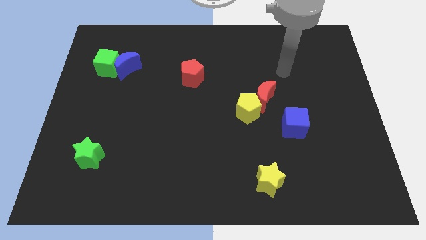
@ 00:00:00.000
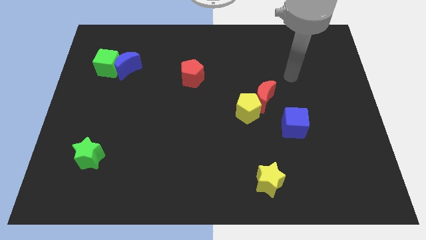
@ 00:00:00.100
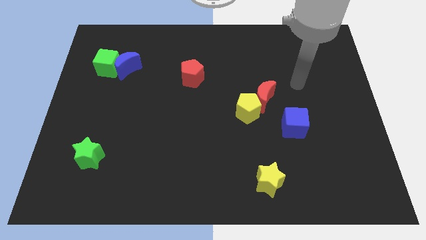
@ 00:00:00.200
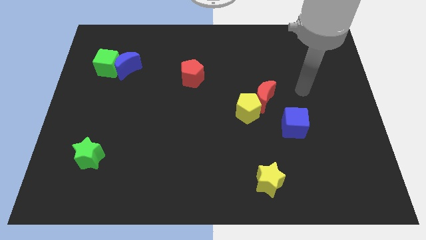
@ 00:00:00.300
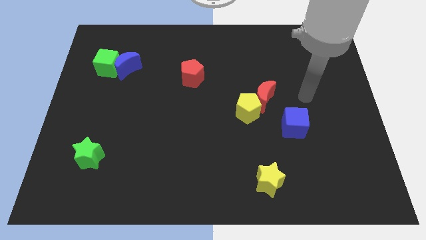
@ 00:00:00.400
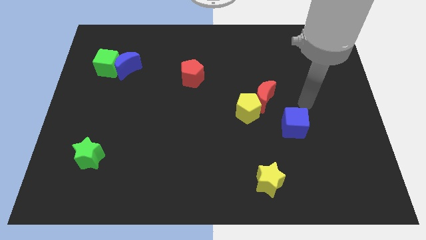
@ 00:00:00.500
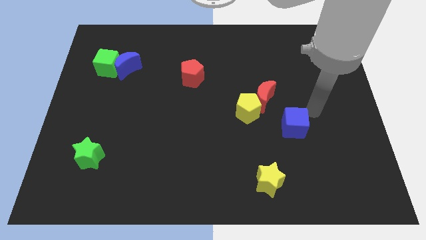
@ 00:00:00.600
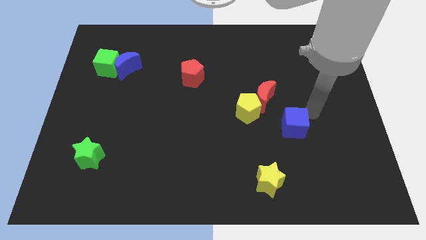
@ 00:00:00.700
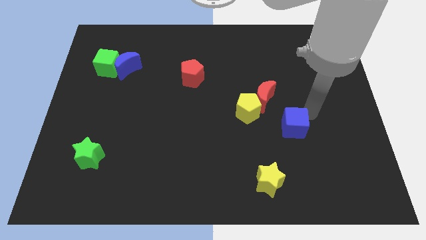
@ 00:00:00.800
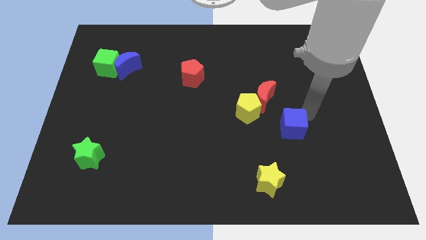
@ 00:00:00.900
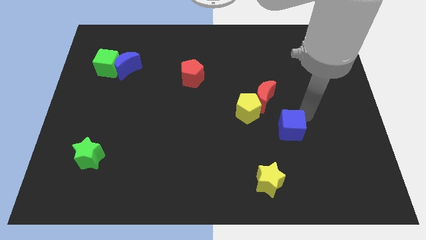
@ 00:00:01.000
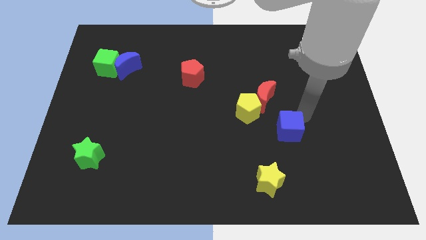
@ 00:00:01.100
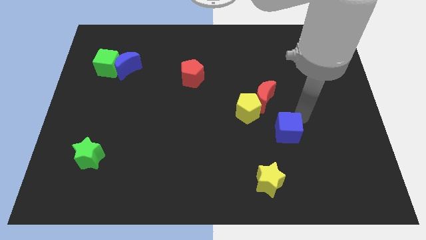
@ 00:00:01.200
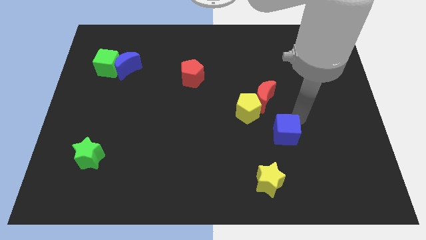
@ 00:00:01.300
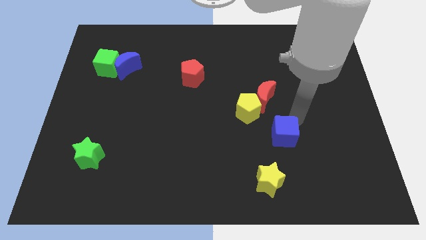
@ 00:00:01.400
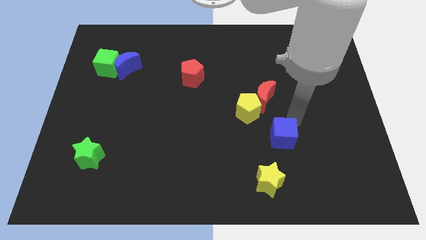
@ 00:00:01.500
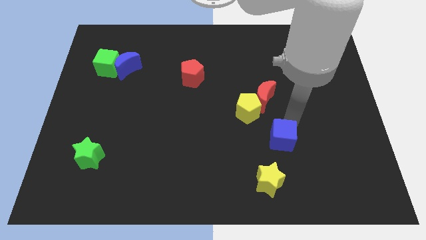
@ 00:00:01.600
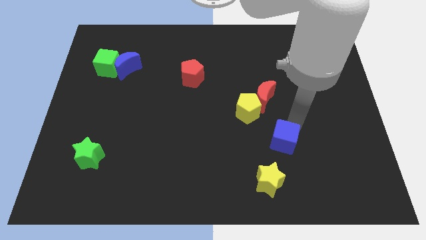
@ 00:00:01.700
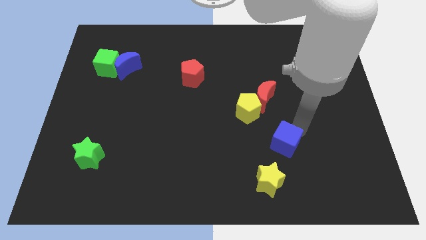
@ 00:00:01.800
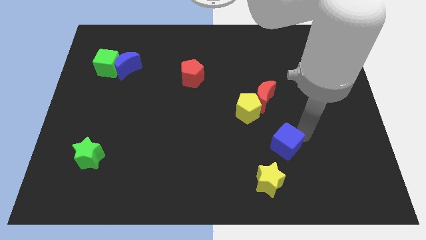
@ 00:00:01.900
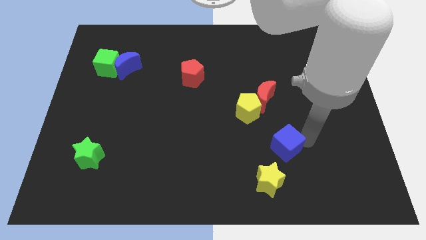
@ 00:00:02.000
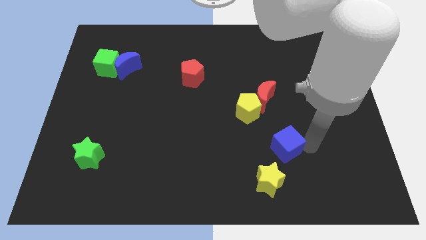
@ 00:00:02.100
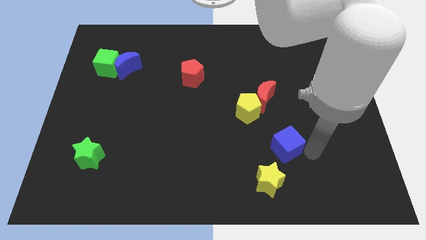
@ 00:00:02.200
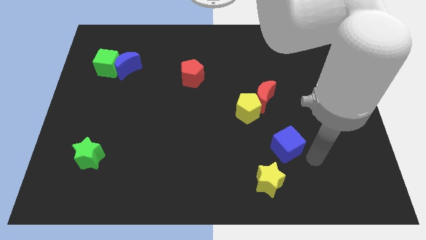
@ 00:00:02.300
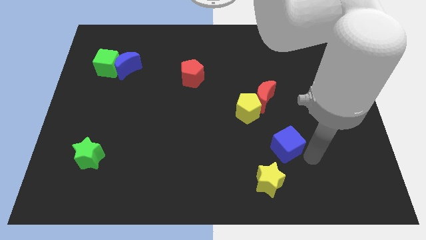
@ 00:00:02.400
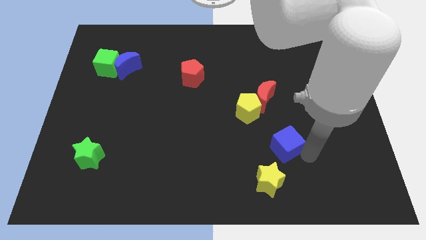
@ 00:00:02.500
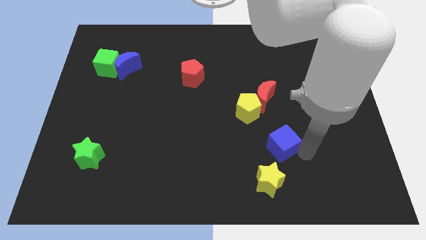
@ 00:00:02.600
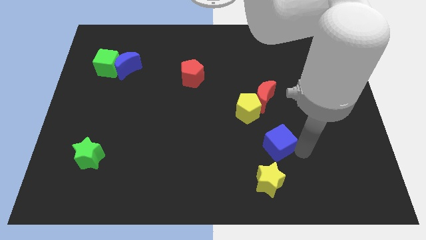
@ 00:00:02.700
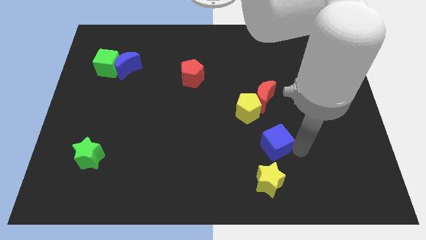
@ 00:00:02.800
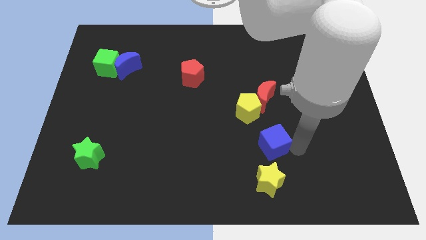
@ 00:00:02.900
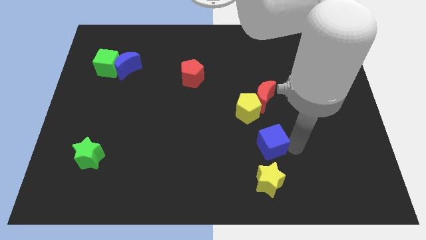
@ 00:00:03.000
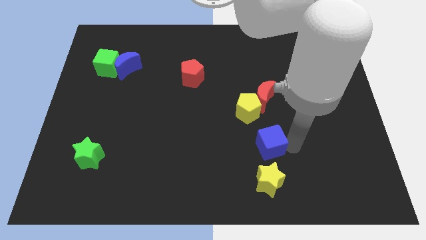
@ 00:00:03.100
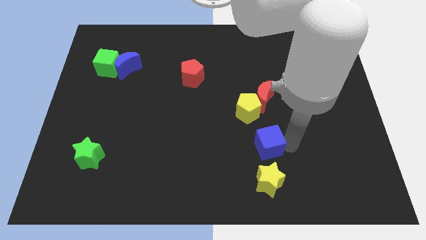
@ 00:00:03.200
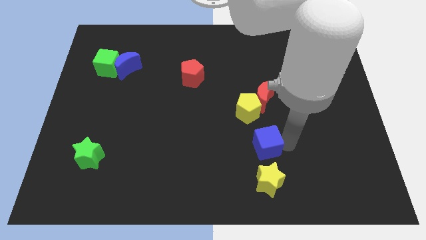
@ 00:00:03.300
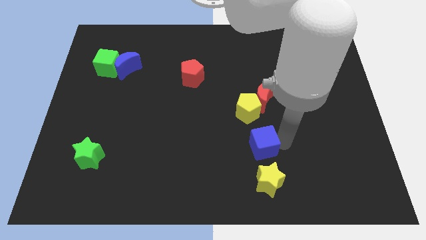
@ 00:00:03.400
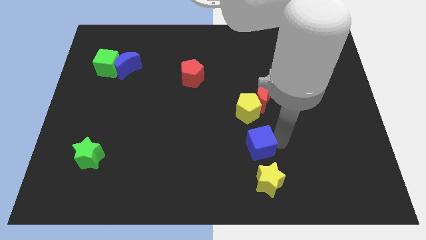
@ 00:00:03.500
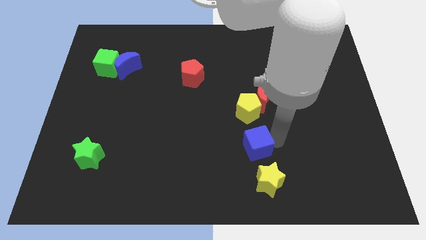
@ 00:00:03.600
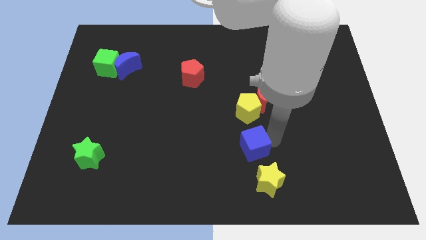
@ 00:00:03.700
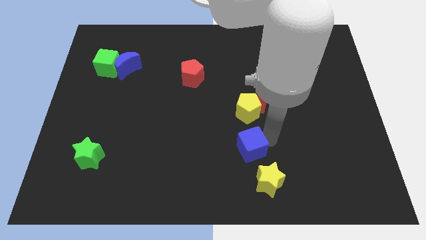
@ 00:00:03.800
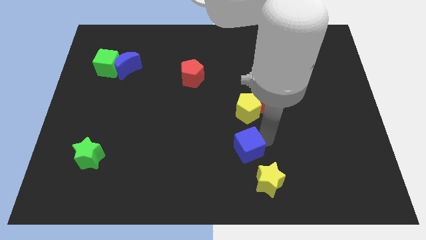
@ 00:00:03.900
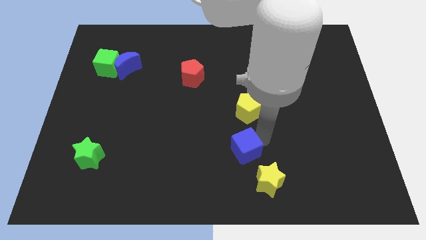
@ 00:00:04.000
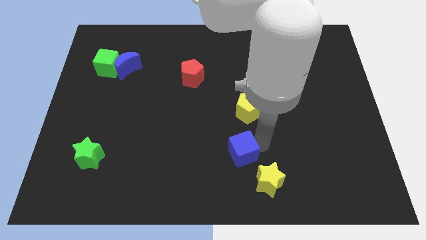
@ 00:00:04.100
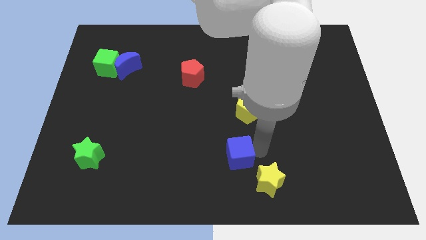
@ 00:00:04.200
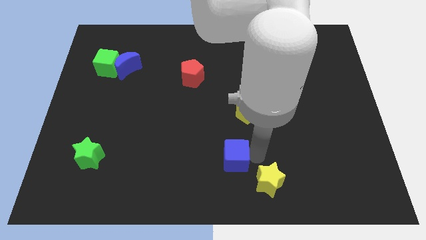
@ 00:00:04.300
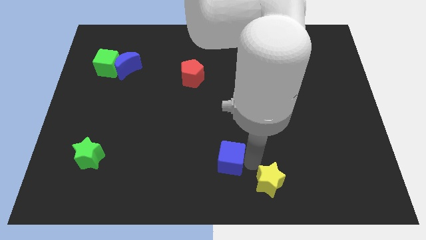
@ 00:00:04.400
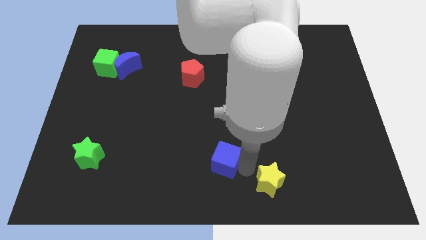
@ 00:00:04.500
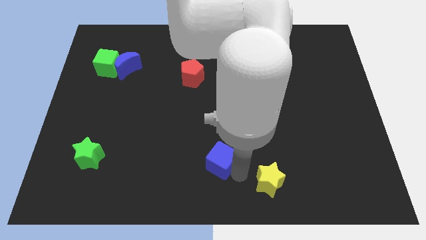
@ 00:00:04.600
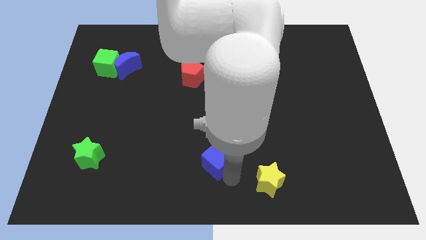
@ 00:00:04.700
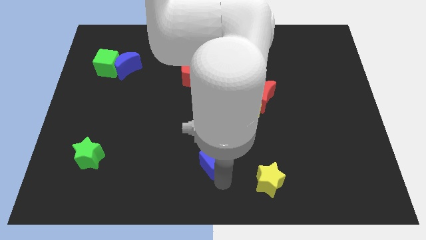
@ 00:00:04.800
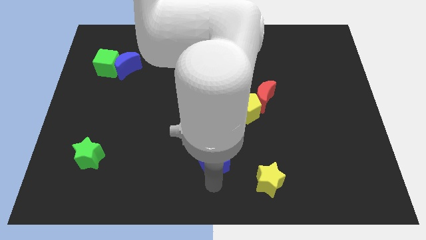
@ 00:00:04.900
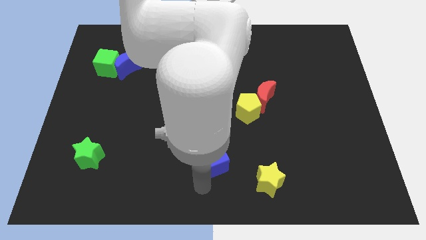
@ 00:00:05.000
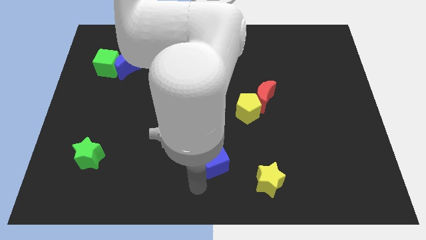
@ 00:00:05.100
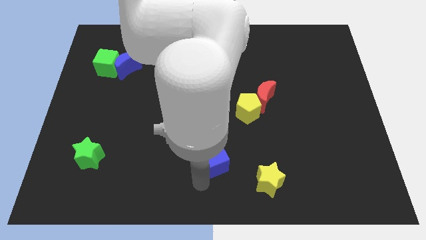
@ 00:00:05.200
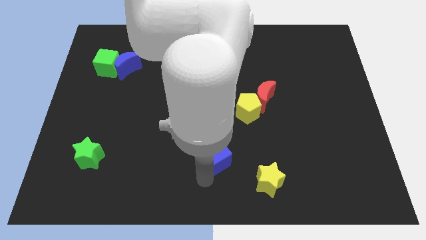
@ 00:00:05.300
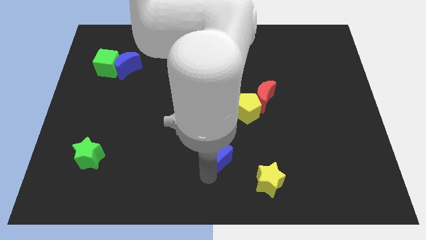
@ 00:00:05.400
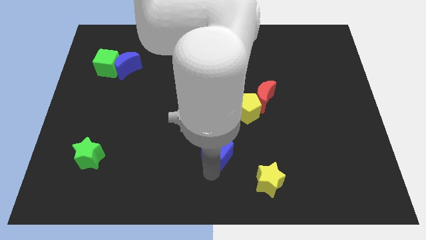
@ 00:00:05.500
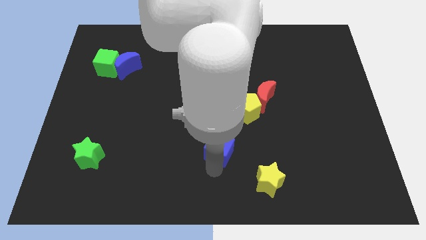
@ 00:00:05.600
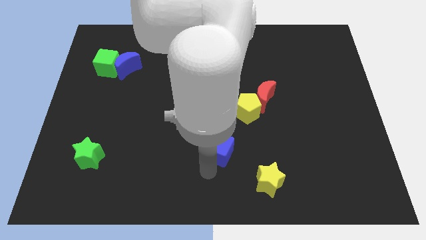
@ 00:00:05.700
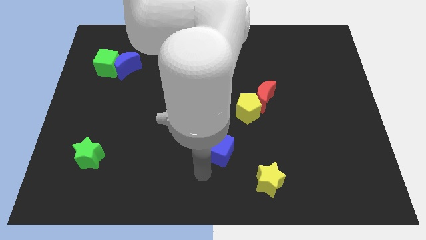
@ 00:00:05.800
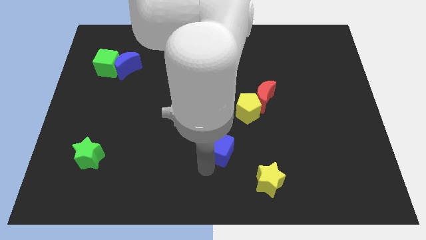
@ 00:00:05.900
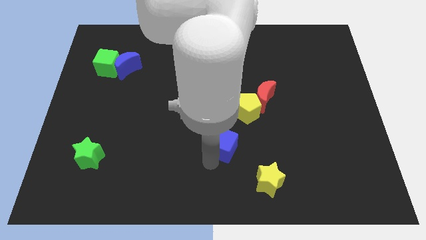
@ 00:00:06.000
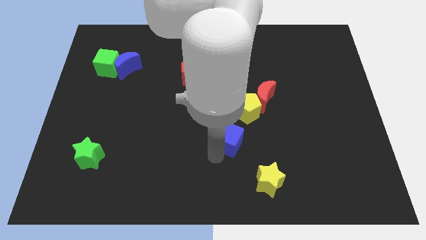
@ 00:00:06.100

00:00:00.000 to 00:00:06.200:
put the blue cube to the middle
